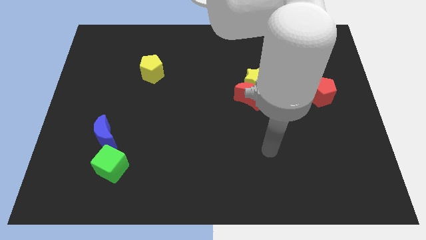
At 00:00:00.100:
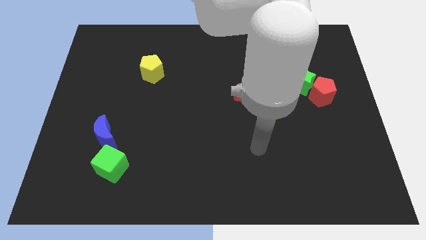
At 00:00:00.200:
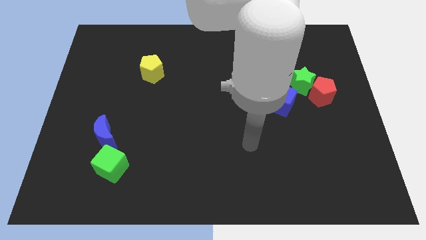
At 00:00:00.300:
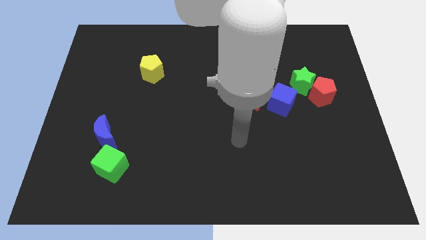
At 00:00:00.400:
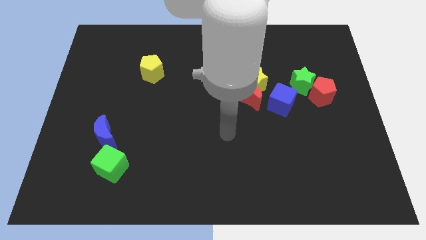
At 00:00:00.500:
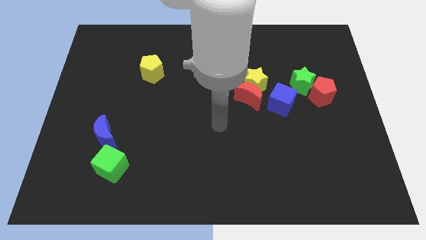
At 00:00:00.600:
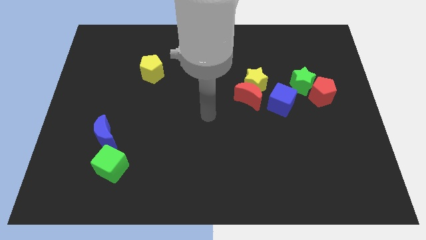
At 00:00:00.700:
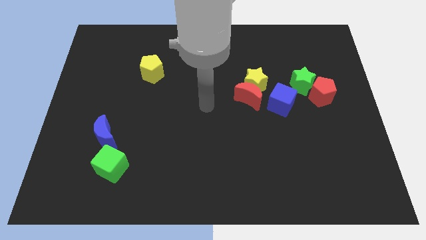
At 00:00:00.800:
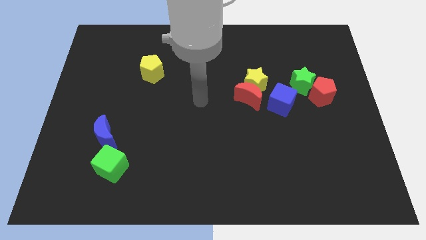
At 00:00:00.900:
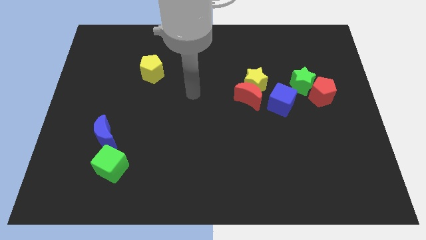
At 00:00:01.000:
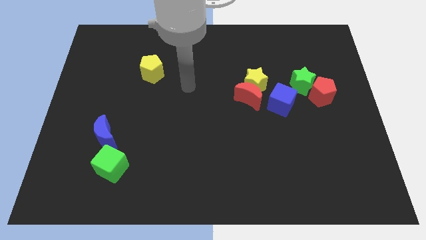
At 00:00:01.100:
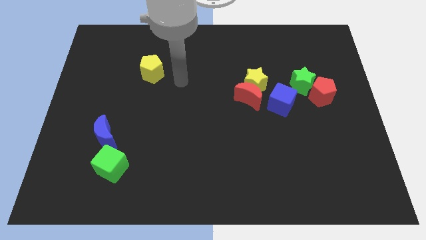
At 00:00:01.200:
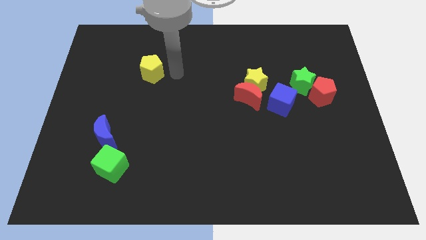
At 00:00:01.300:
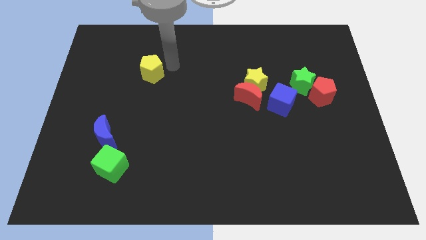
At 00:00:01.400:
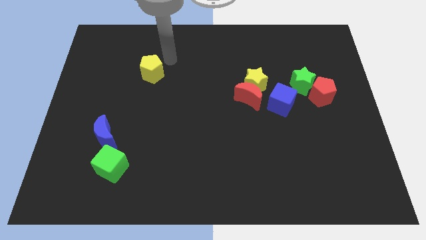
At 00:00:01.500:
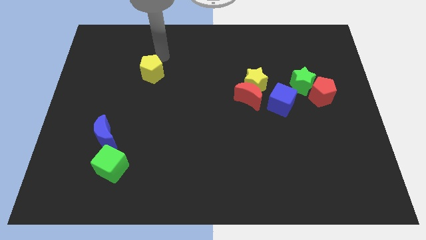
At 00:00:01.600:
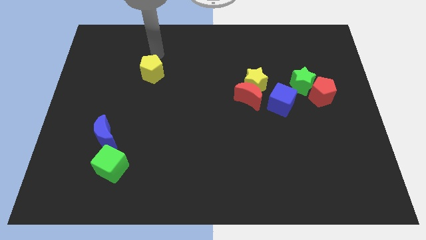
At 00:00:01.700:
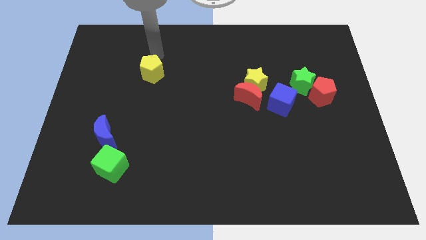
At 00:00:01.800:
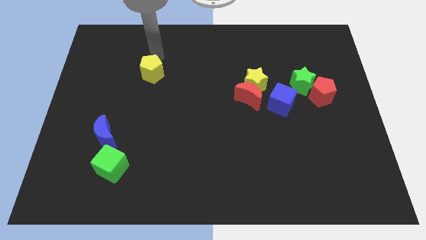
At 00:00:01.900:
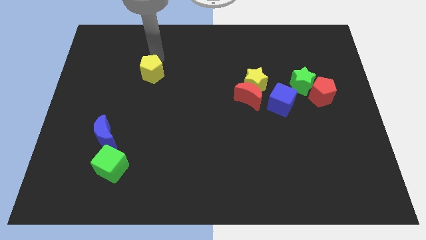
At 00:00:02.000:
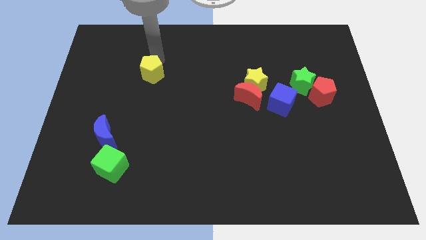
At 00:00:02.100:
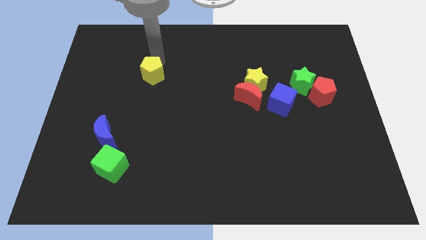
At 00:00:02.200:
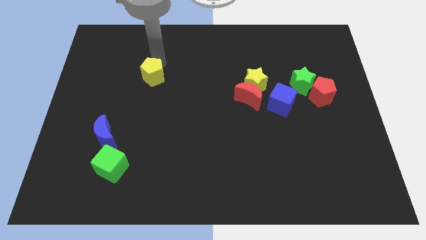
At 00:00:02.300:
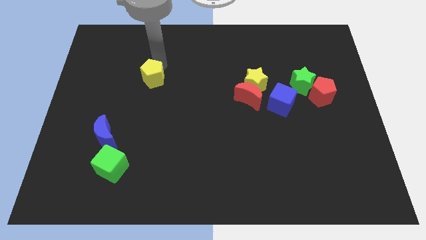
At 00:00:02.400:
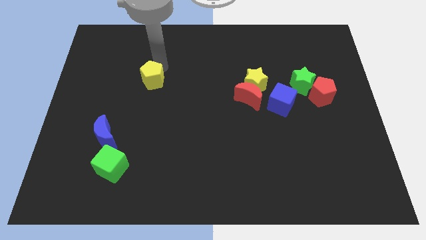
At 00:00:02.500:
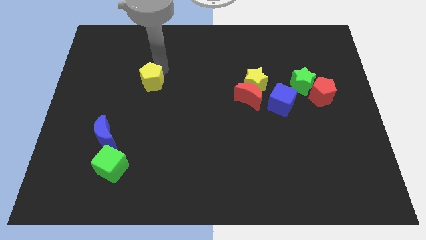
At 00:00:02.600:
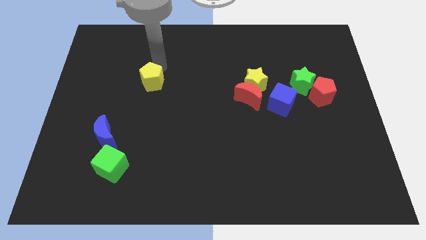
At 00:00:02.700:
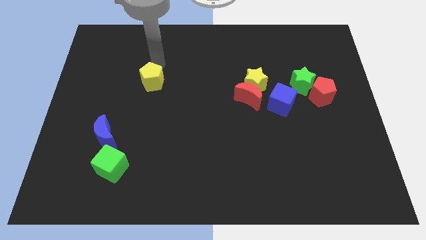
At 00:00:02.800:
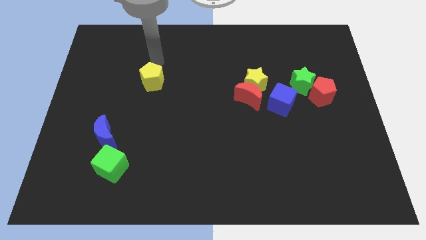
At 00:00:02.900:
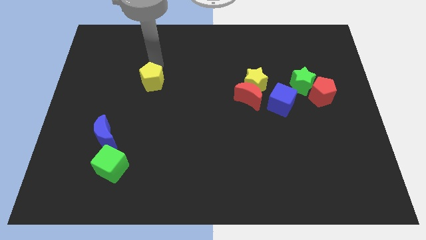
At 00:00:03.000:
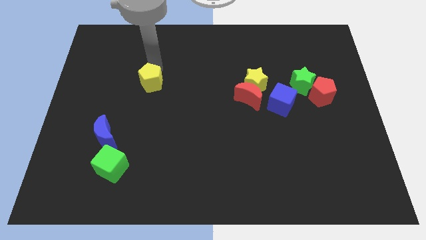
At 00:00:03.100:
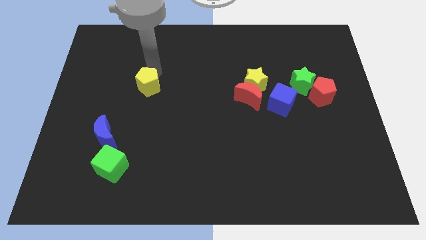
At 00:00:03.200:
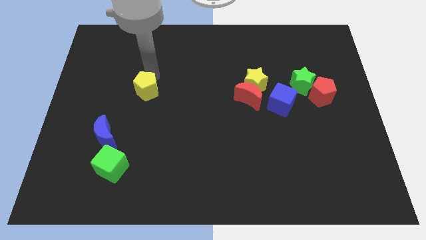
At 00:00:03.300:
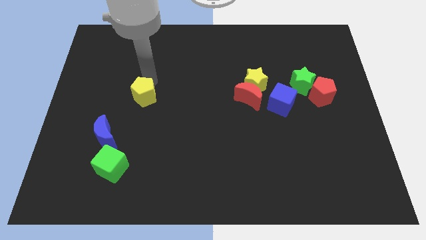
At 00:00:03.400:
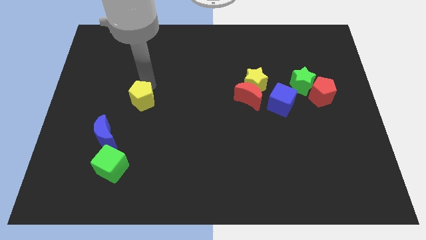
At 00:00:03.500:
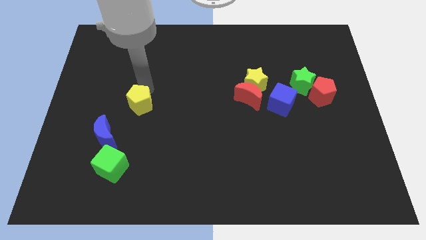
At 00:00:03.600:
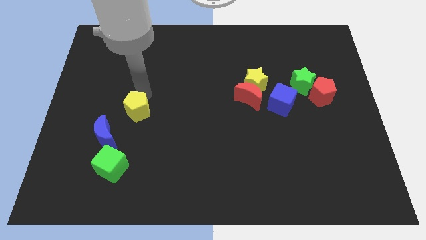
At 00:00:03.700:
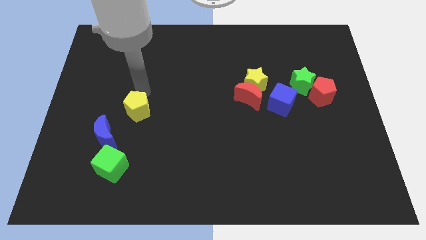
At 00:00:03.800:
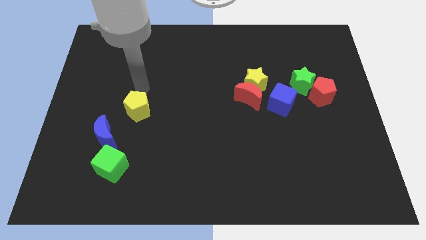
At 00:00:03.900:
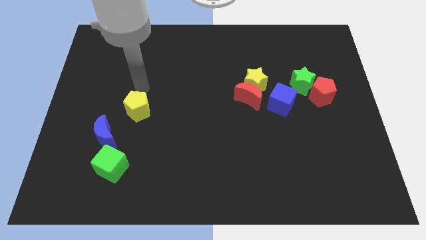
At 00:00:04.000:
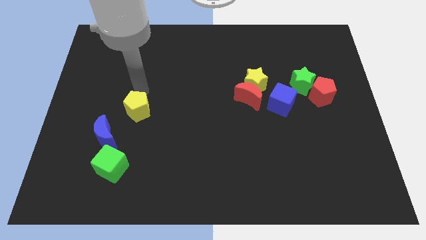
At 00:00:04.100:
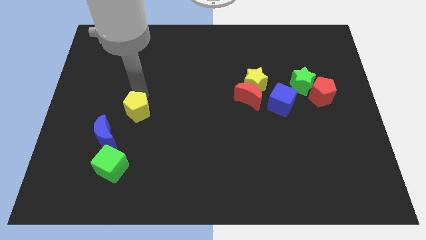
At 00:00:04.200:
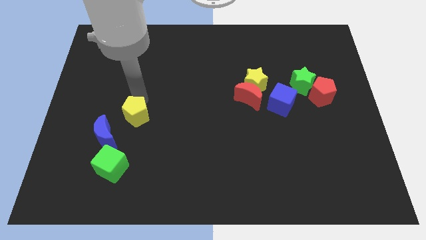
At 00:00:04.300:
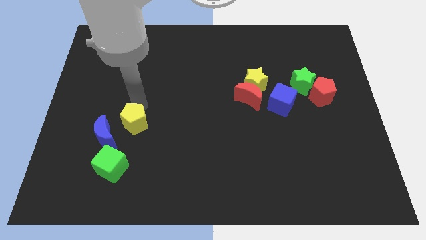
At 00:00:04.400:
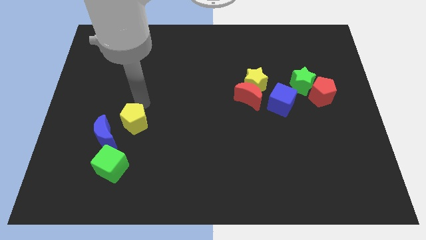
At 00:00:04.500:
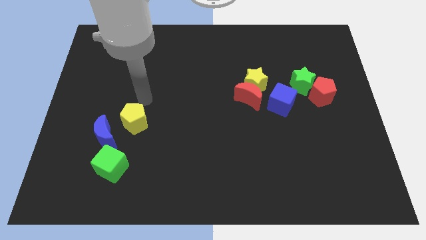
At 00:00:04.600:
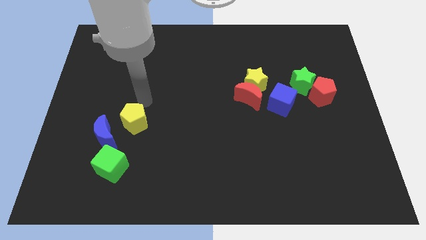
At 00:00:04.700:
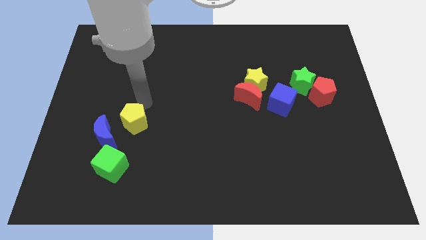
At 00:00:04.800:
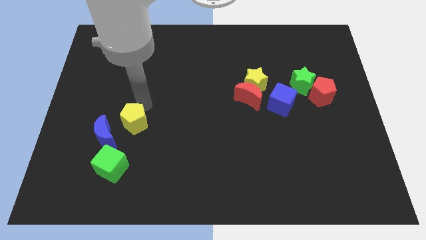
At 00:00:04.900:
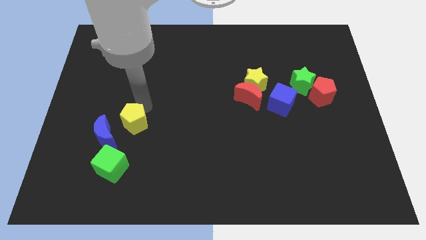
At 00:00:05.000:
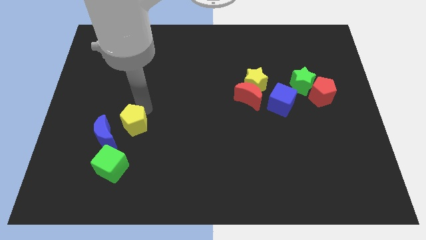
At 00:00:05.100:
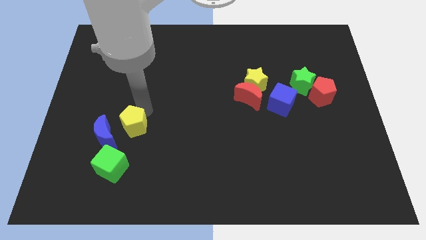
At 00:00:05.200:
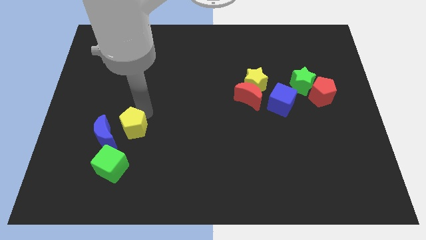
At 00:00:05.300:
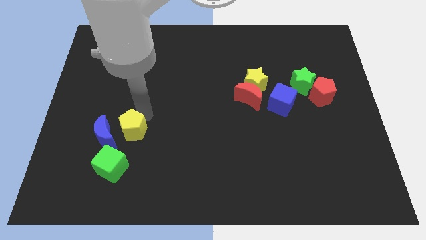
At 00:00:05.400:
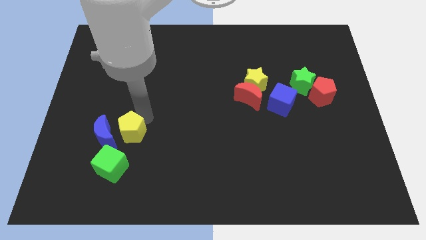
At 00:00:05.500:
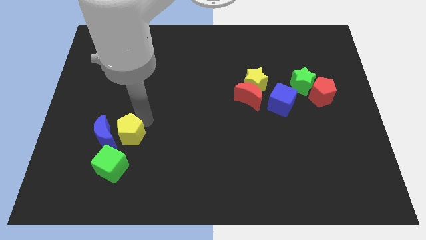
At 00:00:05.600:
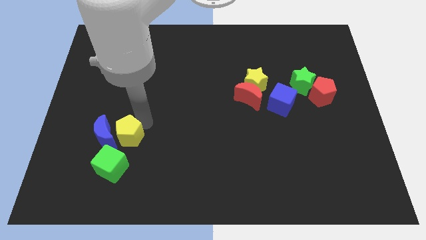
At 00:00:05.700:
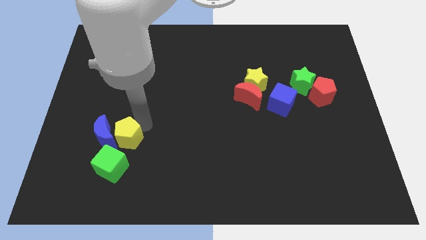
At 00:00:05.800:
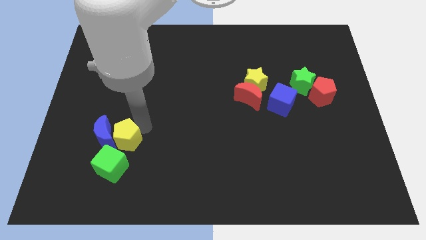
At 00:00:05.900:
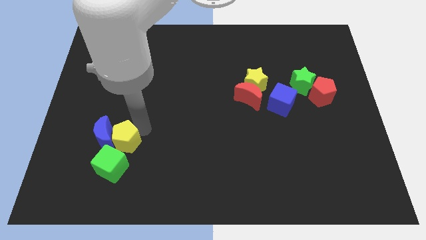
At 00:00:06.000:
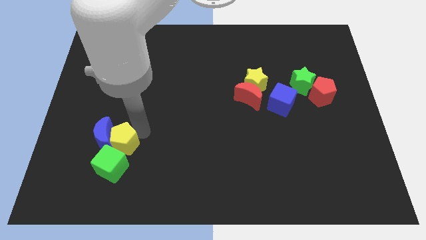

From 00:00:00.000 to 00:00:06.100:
move the yellow pentagon next to the green cube
